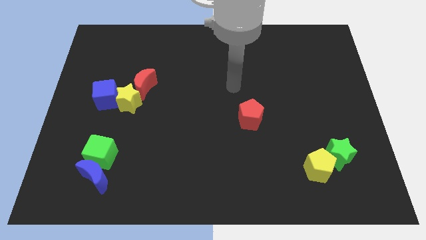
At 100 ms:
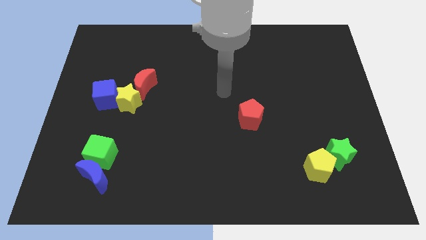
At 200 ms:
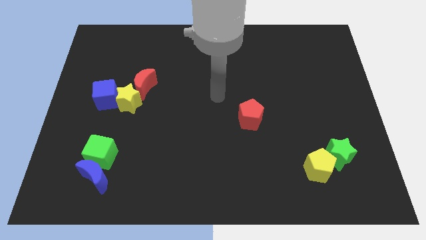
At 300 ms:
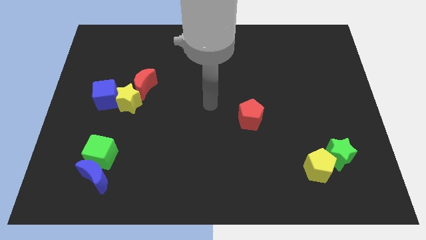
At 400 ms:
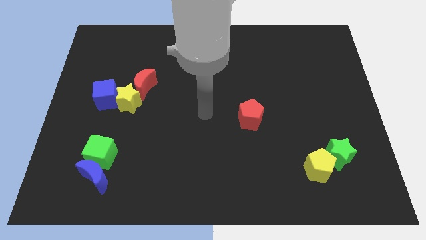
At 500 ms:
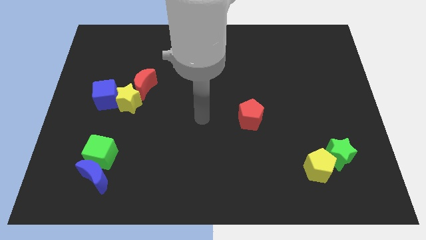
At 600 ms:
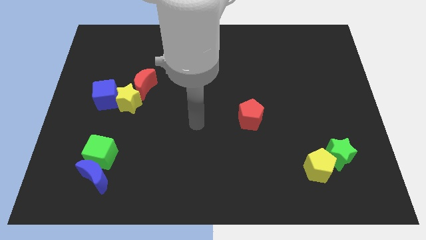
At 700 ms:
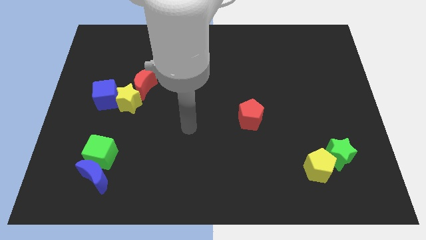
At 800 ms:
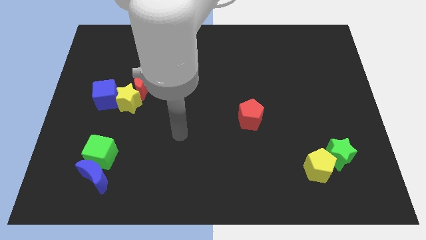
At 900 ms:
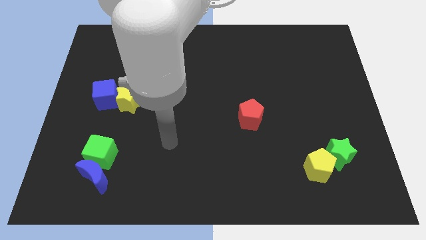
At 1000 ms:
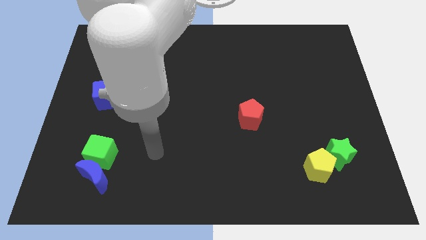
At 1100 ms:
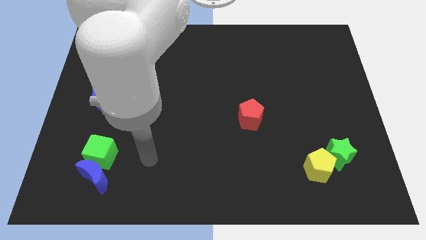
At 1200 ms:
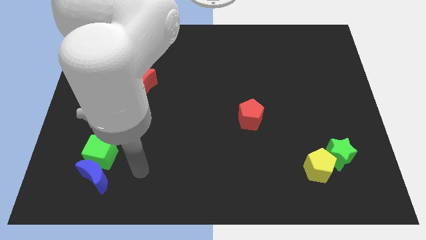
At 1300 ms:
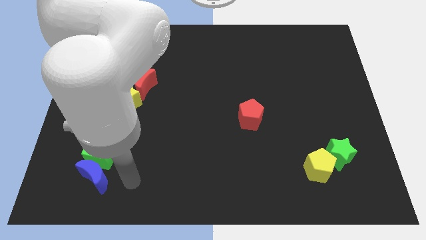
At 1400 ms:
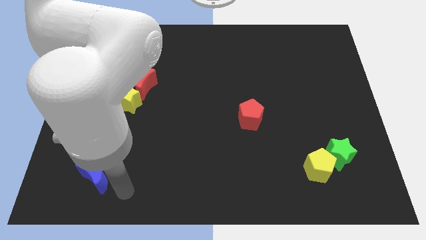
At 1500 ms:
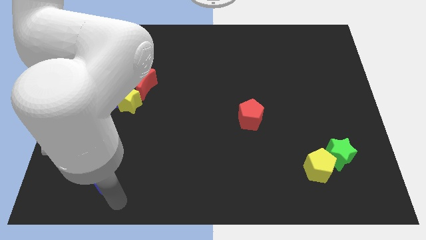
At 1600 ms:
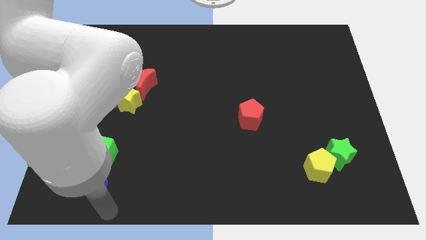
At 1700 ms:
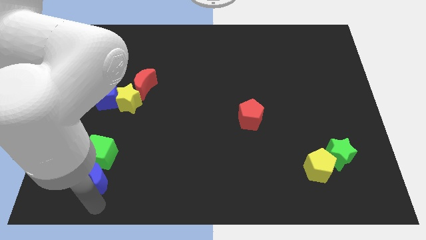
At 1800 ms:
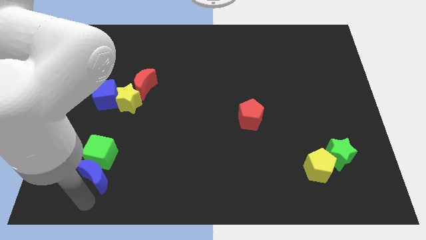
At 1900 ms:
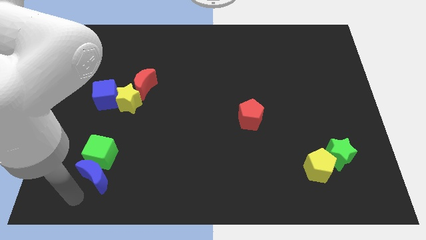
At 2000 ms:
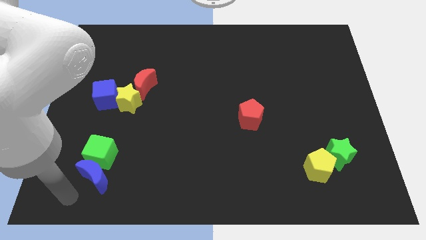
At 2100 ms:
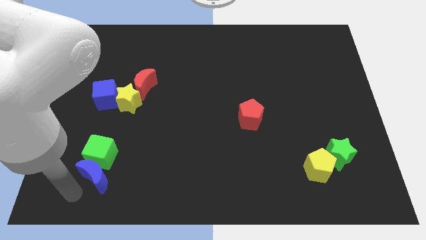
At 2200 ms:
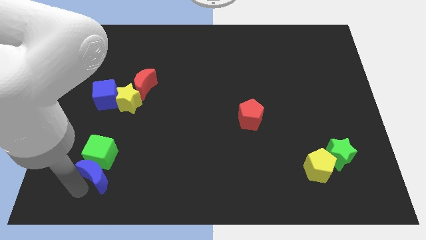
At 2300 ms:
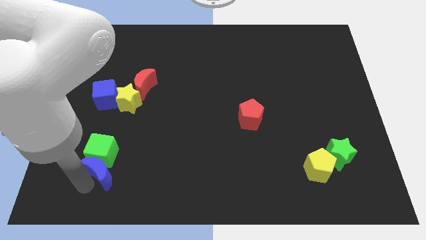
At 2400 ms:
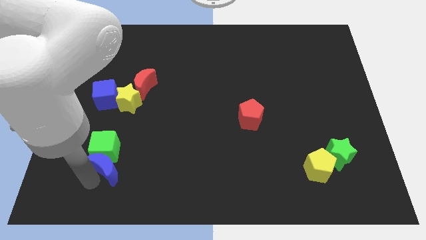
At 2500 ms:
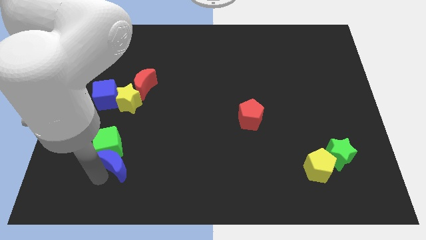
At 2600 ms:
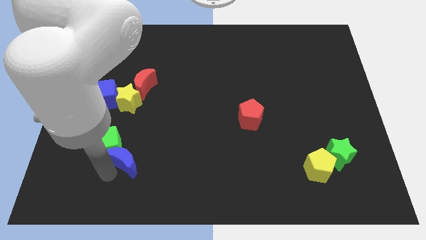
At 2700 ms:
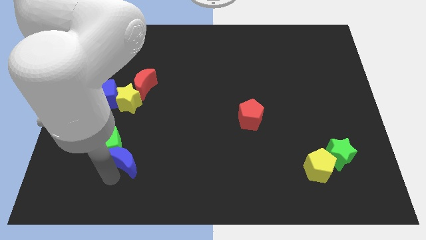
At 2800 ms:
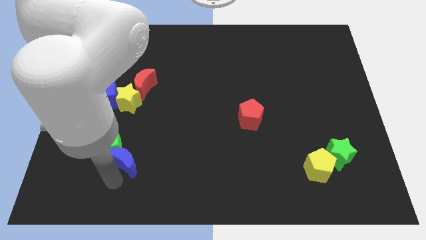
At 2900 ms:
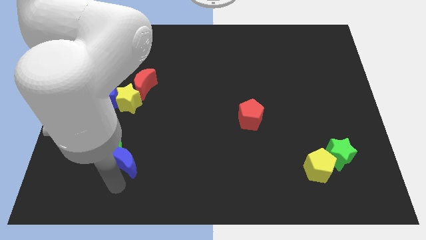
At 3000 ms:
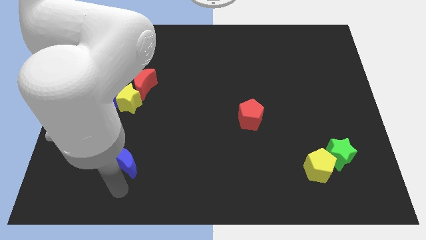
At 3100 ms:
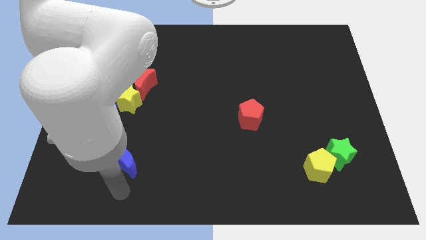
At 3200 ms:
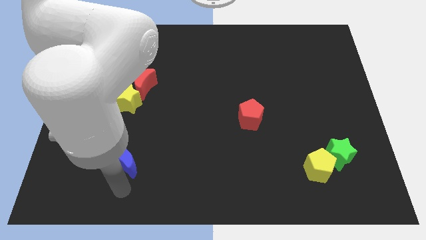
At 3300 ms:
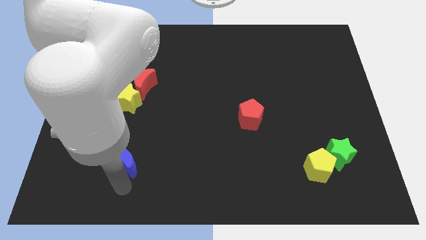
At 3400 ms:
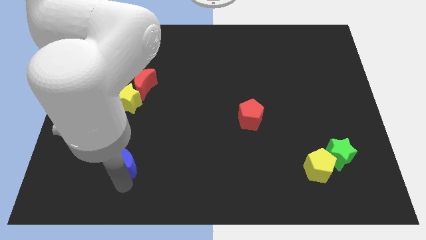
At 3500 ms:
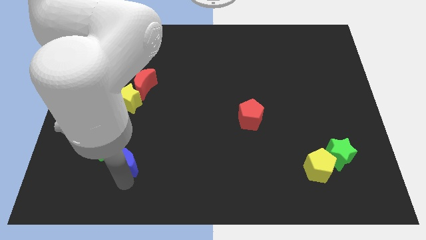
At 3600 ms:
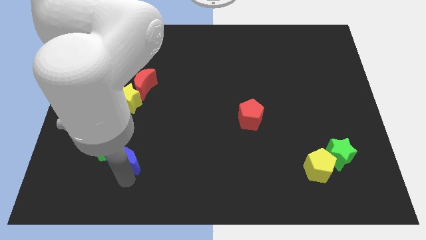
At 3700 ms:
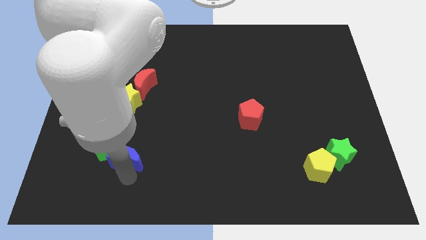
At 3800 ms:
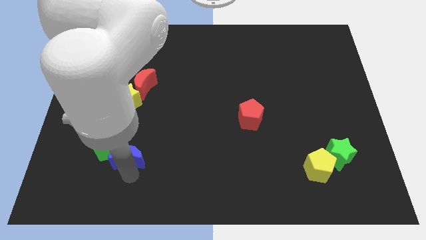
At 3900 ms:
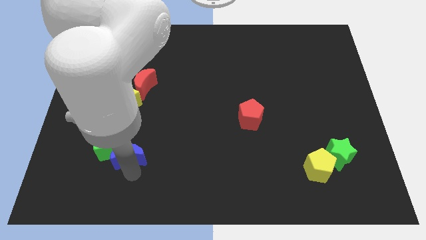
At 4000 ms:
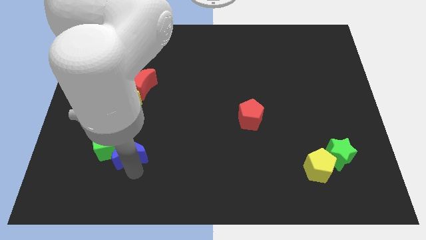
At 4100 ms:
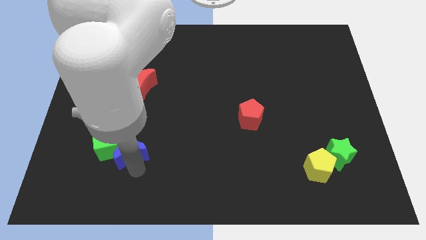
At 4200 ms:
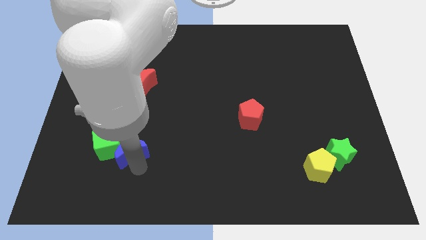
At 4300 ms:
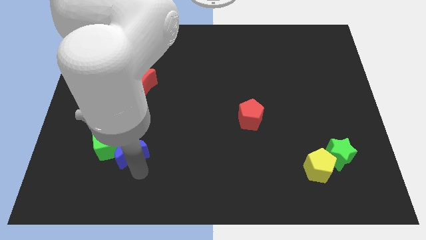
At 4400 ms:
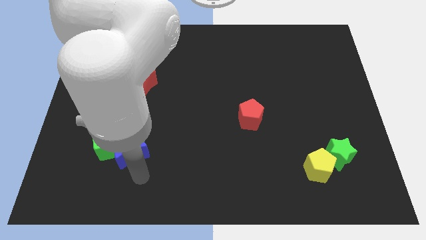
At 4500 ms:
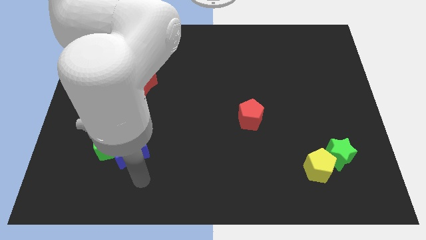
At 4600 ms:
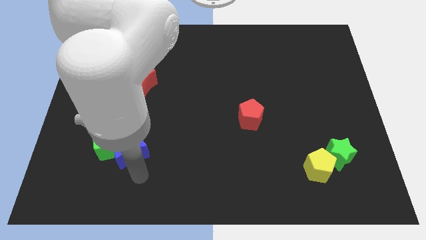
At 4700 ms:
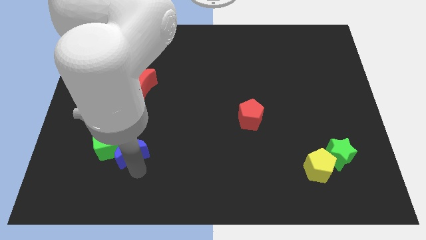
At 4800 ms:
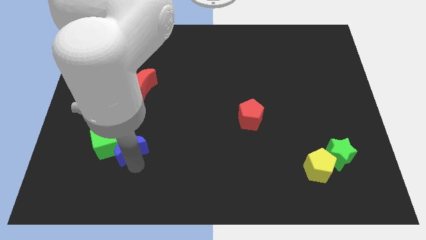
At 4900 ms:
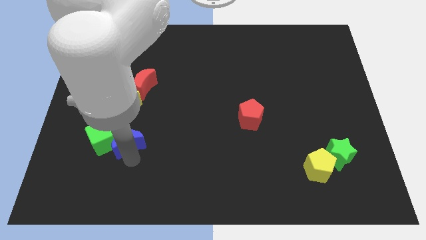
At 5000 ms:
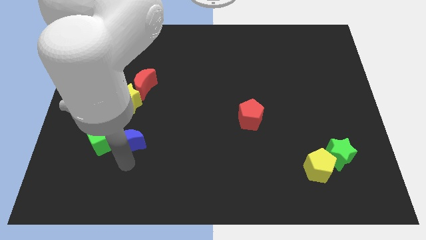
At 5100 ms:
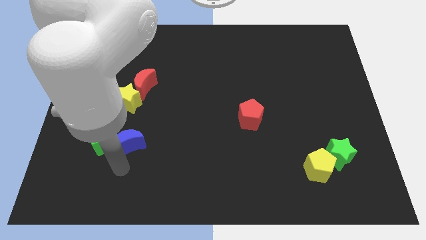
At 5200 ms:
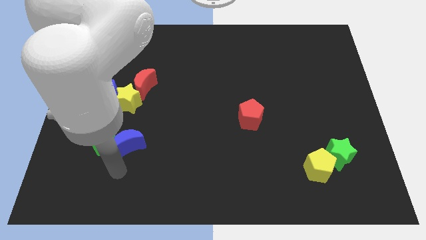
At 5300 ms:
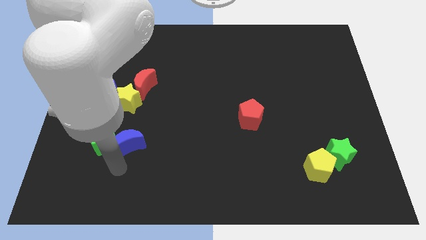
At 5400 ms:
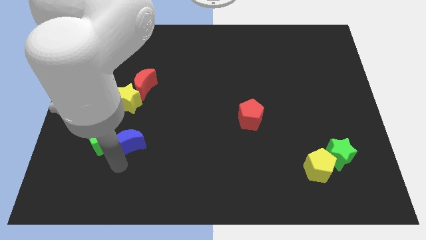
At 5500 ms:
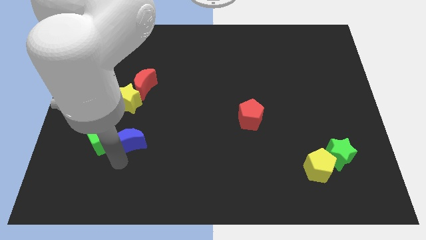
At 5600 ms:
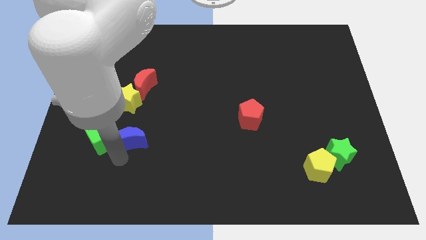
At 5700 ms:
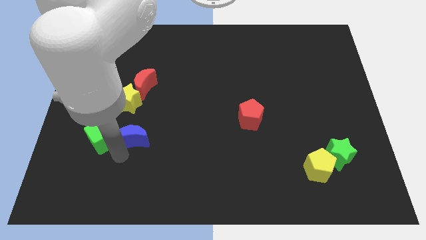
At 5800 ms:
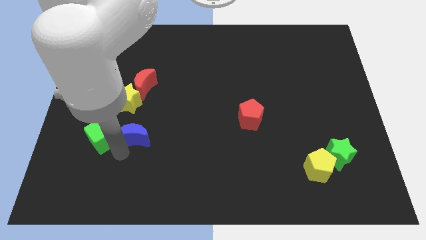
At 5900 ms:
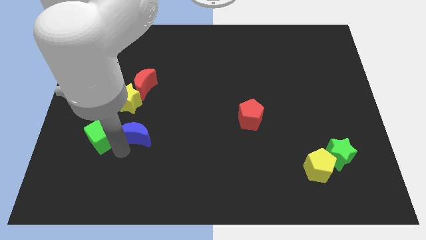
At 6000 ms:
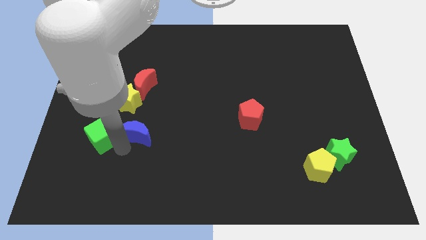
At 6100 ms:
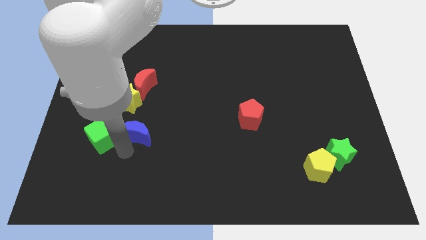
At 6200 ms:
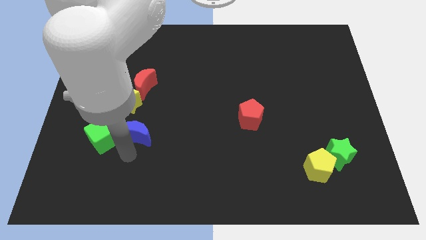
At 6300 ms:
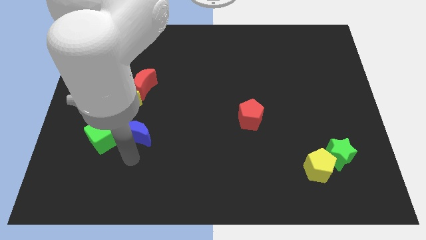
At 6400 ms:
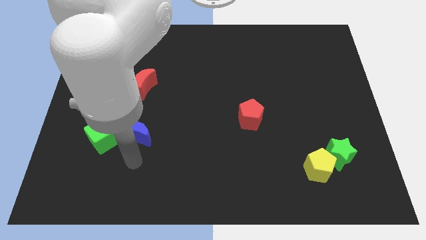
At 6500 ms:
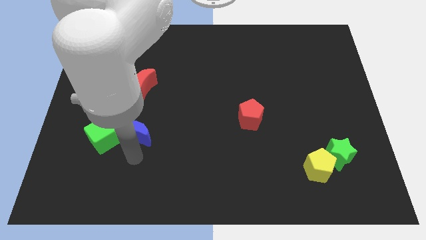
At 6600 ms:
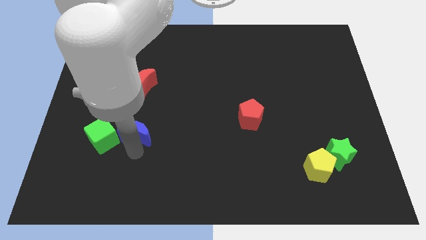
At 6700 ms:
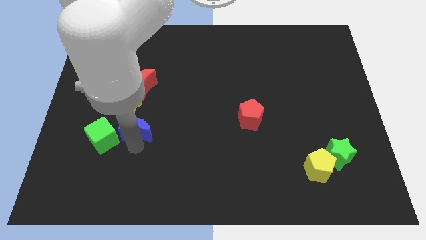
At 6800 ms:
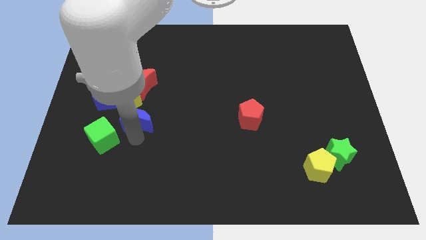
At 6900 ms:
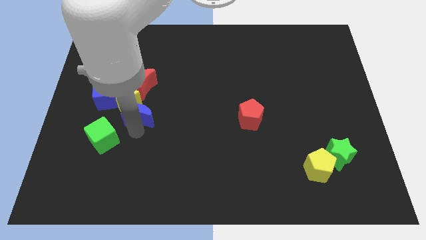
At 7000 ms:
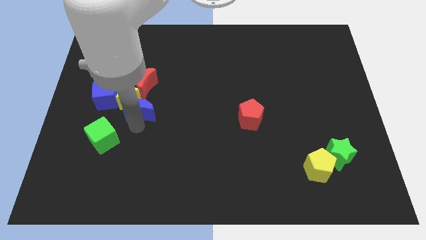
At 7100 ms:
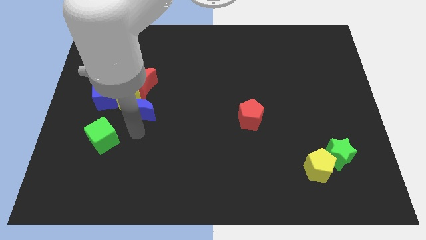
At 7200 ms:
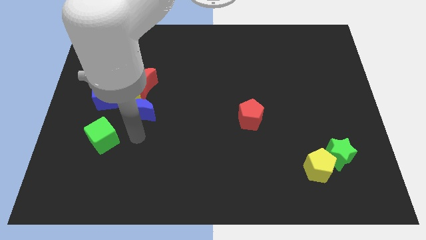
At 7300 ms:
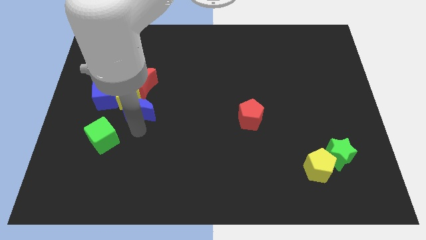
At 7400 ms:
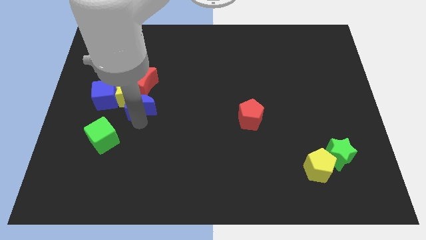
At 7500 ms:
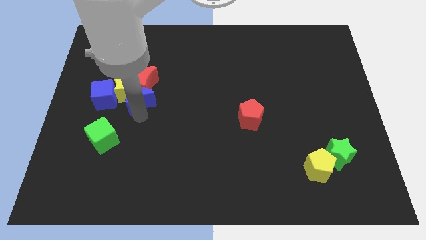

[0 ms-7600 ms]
put the blue moon close to the red moon
